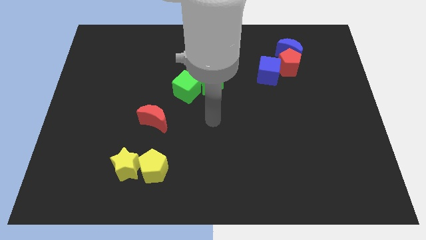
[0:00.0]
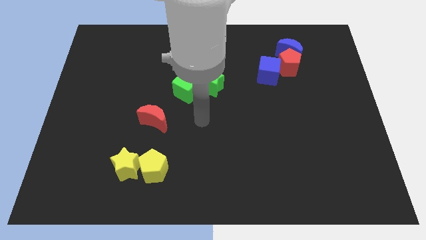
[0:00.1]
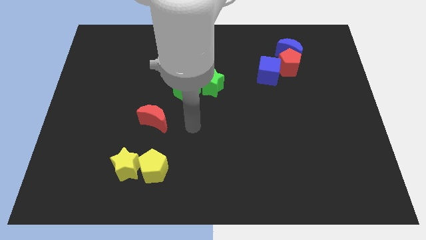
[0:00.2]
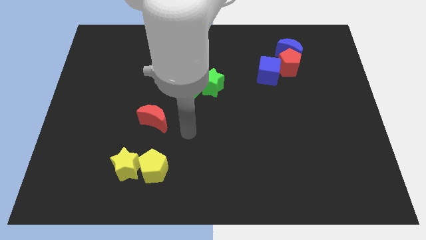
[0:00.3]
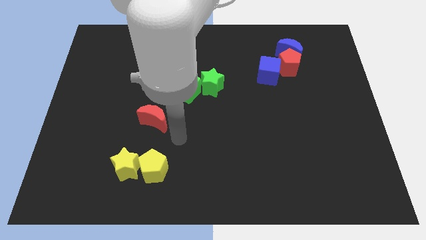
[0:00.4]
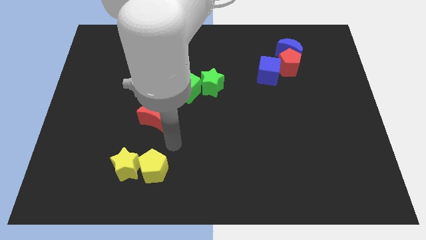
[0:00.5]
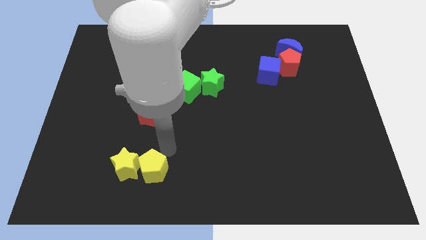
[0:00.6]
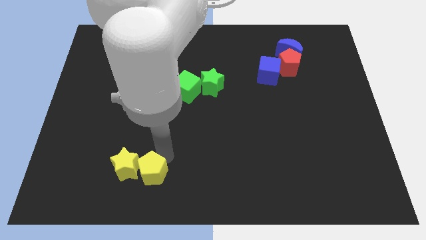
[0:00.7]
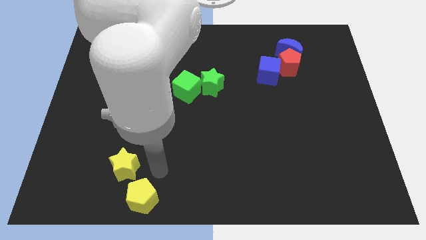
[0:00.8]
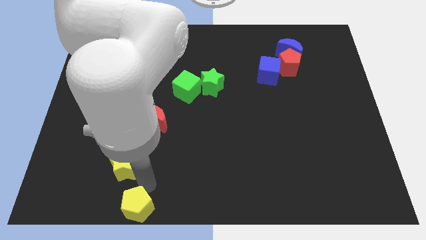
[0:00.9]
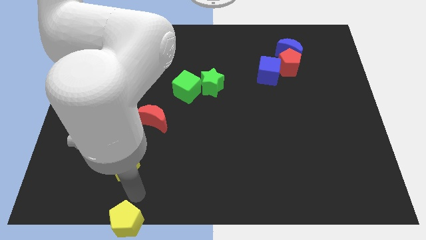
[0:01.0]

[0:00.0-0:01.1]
pull the yellow star apart from the yellow pentagon

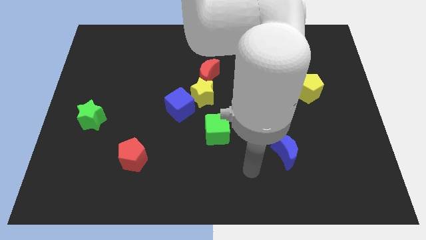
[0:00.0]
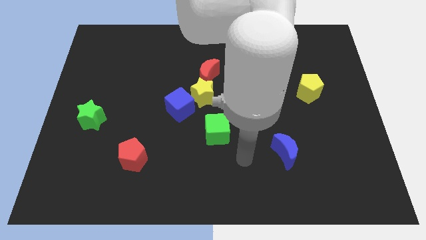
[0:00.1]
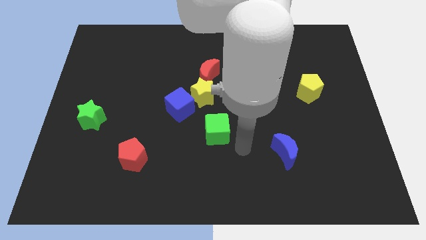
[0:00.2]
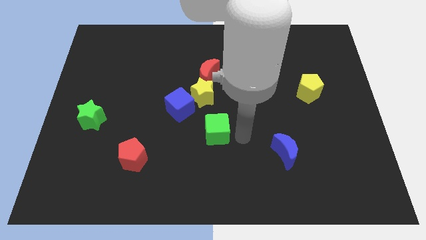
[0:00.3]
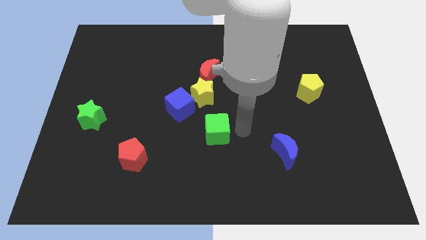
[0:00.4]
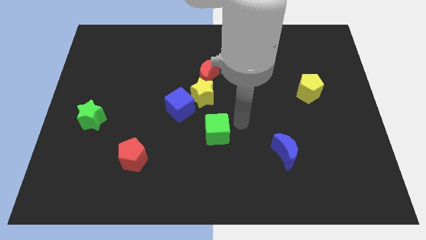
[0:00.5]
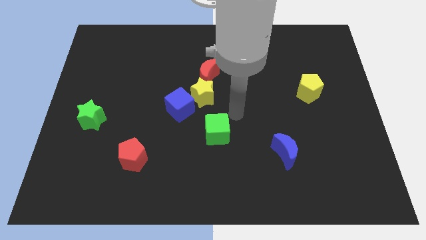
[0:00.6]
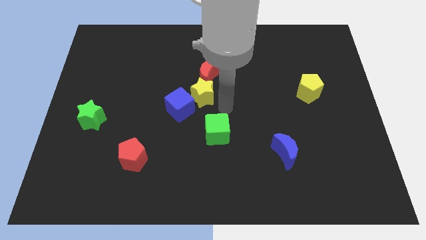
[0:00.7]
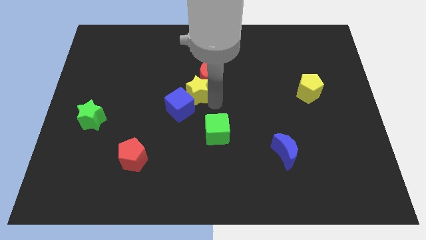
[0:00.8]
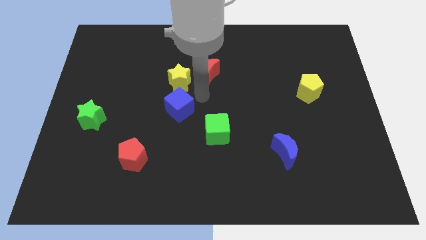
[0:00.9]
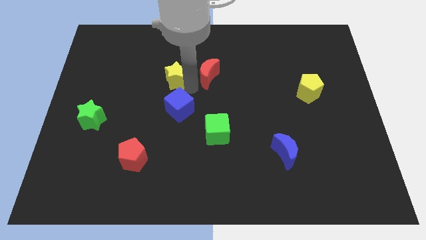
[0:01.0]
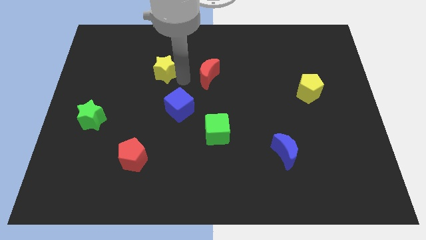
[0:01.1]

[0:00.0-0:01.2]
separate the red moon from the yellow star

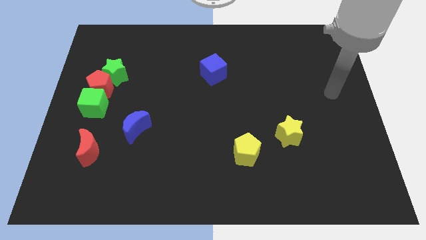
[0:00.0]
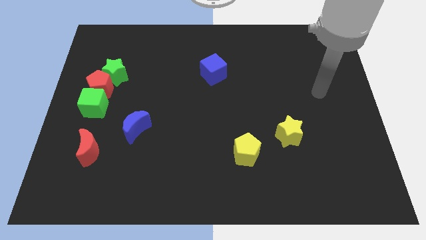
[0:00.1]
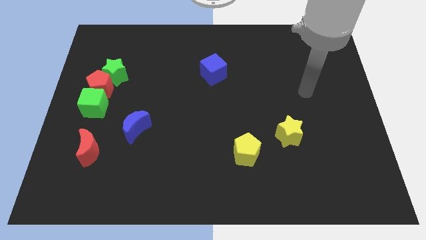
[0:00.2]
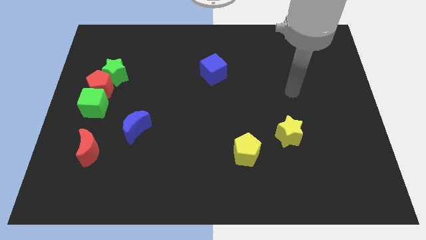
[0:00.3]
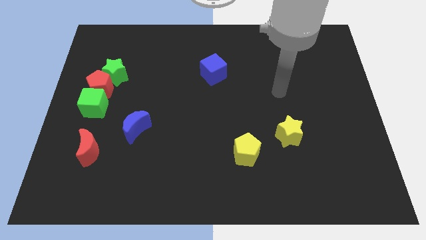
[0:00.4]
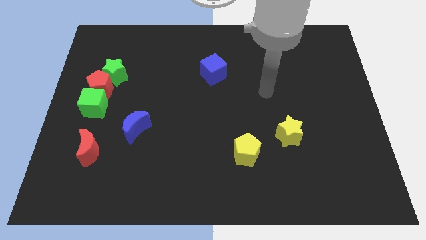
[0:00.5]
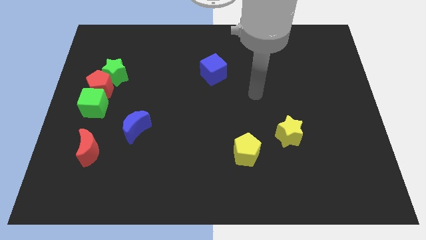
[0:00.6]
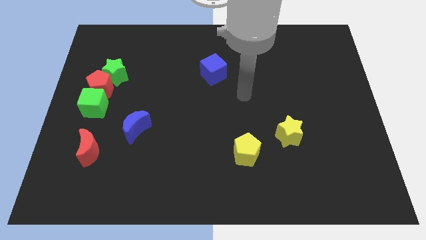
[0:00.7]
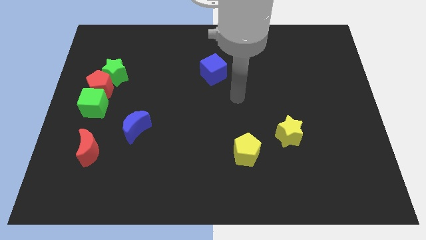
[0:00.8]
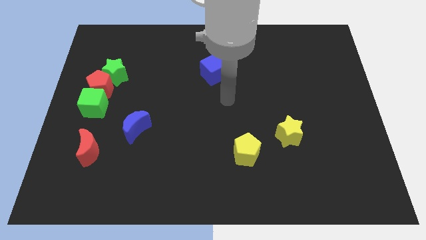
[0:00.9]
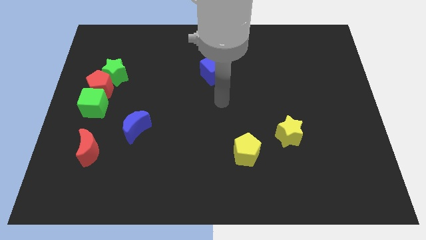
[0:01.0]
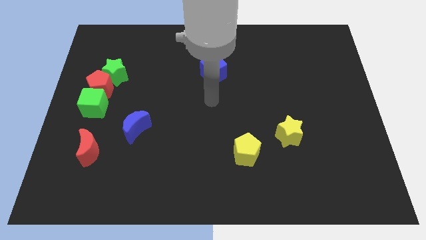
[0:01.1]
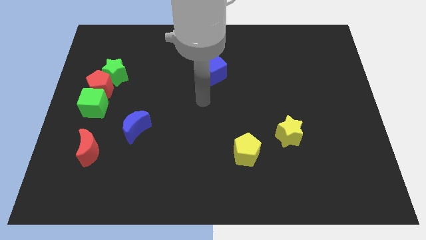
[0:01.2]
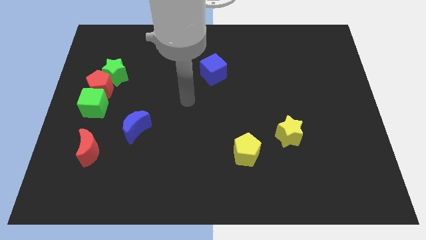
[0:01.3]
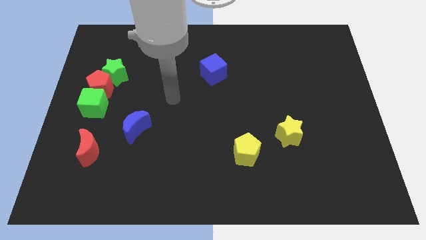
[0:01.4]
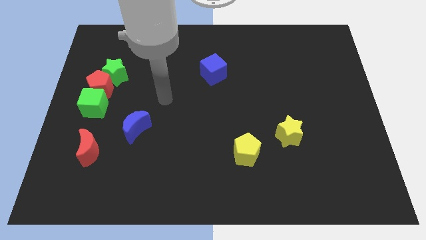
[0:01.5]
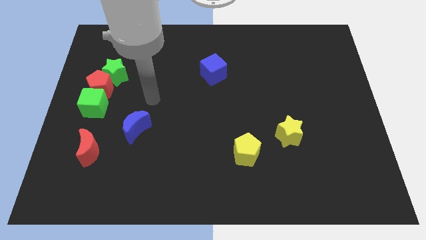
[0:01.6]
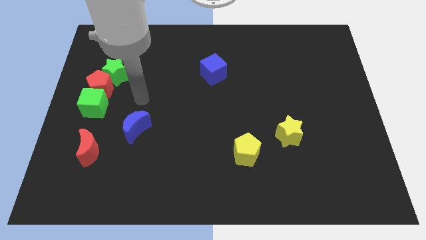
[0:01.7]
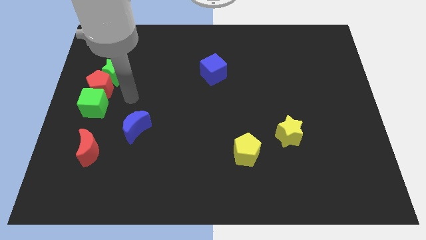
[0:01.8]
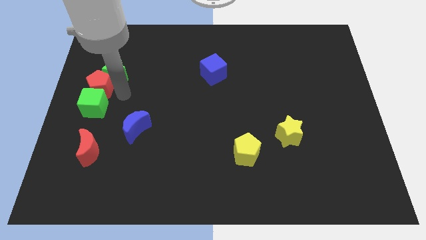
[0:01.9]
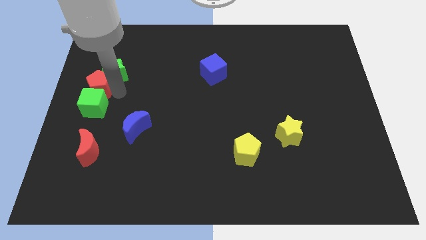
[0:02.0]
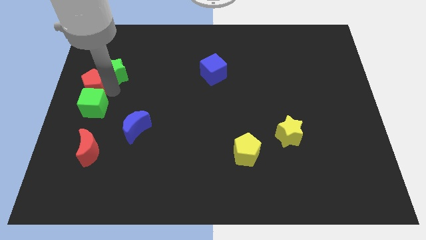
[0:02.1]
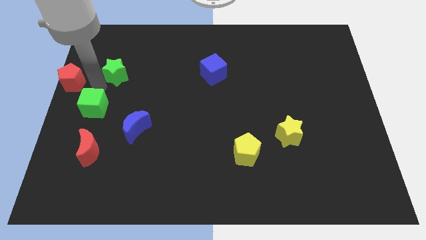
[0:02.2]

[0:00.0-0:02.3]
separate the green cube from the red pentagon

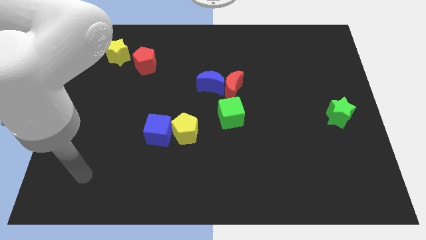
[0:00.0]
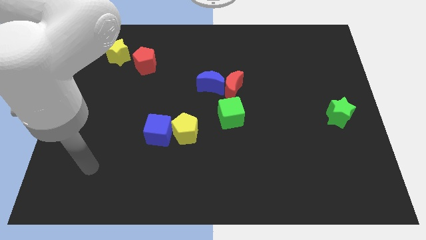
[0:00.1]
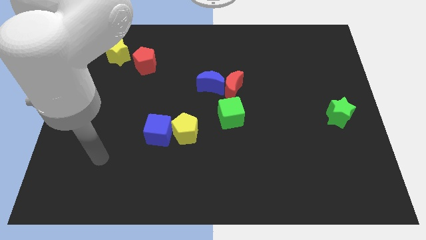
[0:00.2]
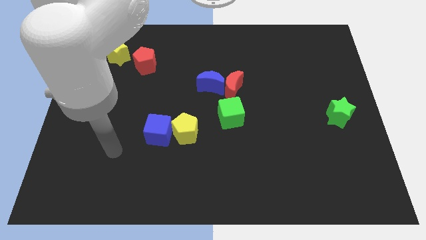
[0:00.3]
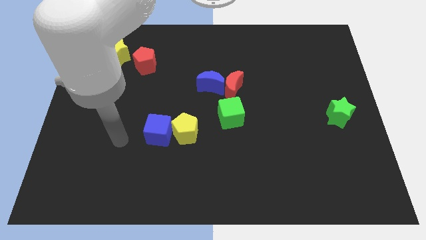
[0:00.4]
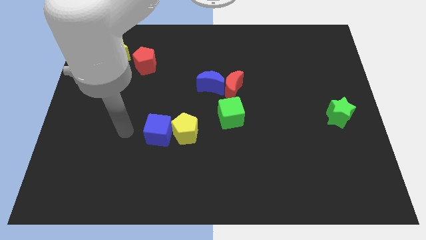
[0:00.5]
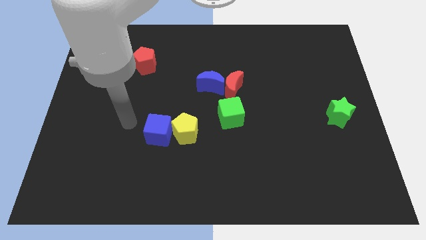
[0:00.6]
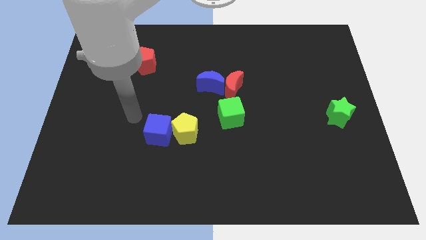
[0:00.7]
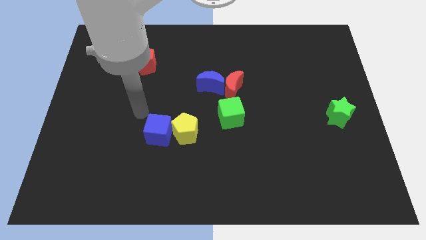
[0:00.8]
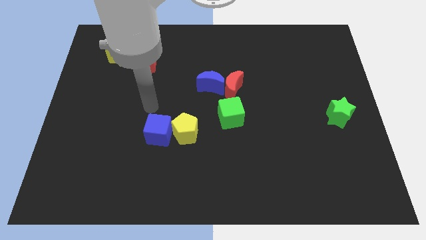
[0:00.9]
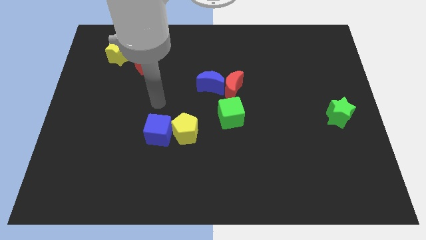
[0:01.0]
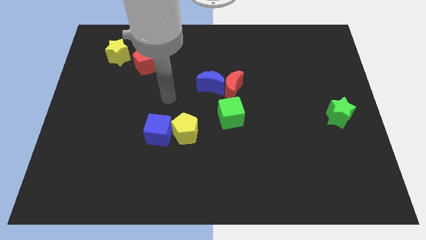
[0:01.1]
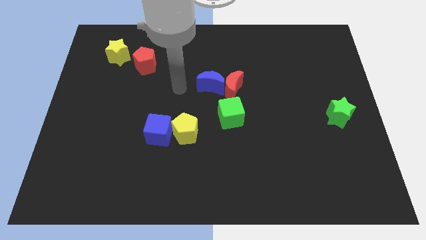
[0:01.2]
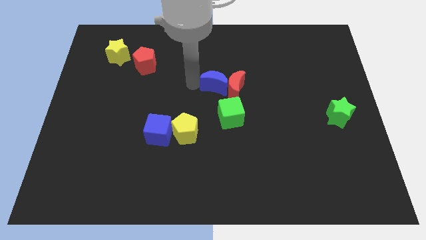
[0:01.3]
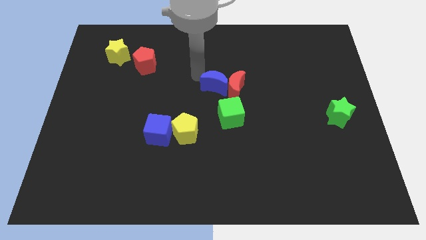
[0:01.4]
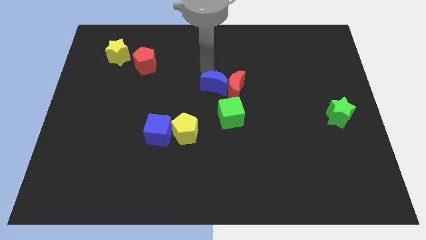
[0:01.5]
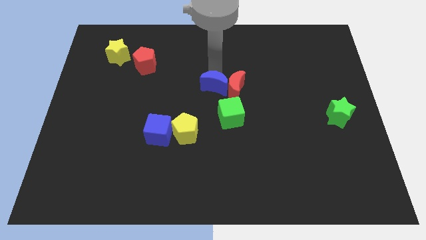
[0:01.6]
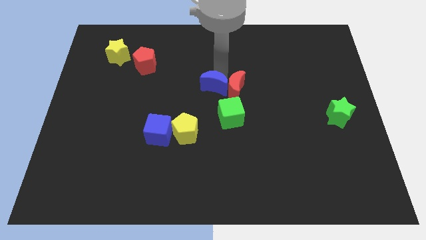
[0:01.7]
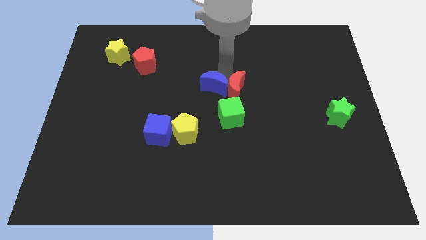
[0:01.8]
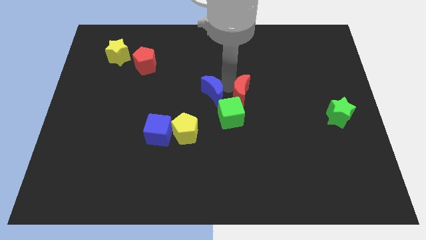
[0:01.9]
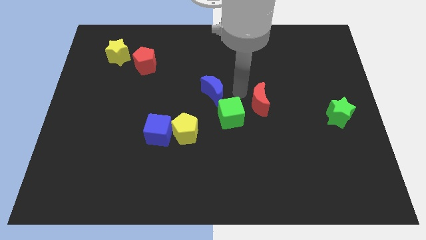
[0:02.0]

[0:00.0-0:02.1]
move the blue moon away from the red moon

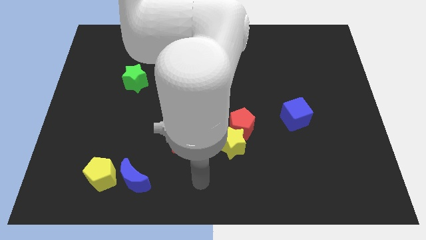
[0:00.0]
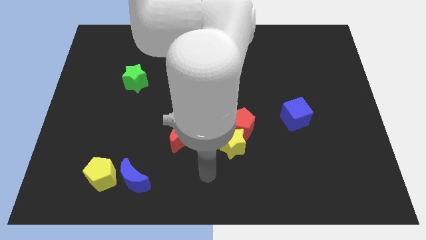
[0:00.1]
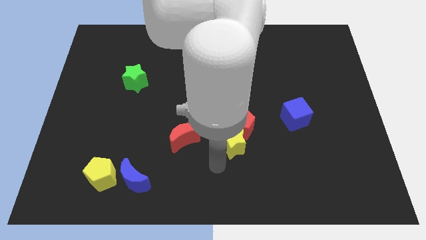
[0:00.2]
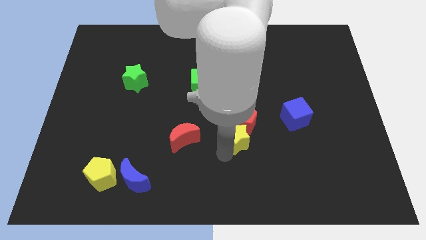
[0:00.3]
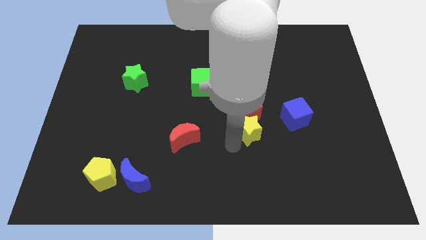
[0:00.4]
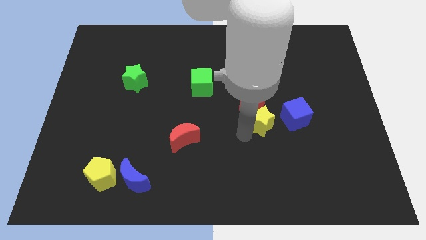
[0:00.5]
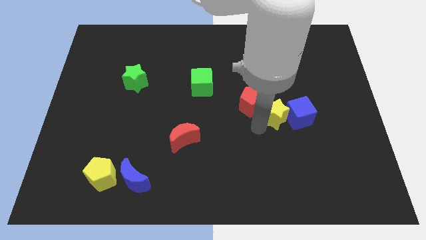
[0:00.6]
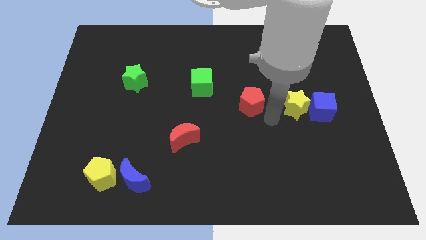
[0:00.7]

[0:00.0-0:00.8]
pull the red pentagon apart from the yellow star

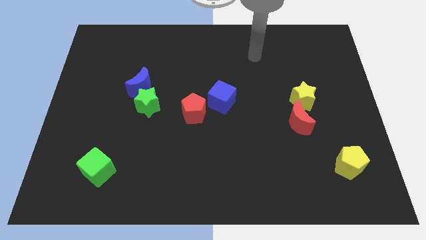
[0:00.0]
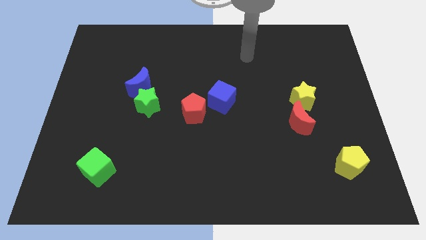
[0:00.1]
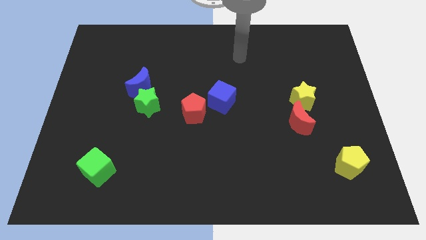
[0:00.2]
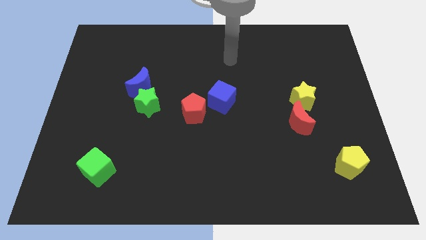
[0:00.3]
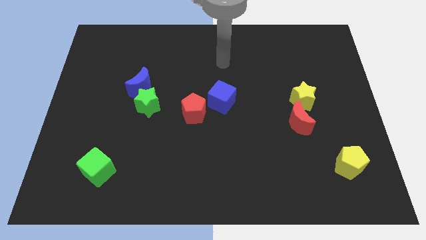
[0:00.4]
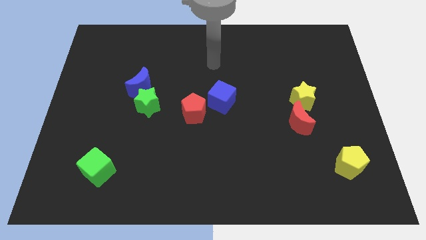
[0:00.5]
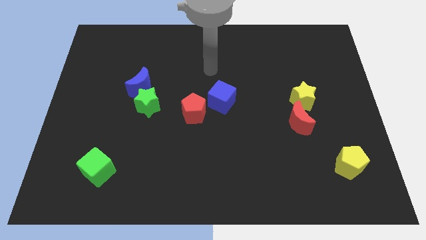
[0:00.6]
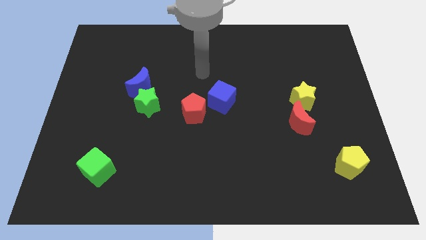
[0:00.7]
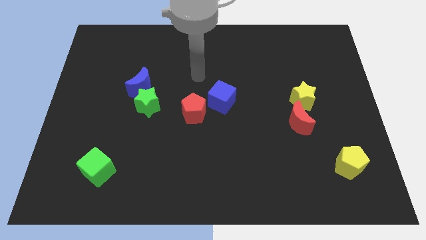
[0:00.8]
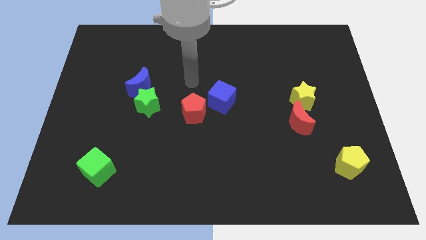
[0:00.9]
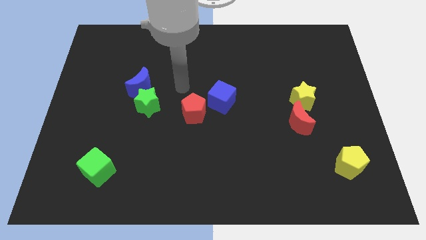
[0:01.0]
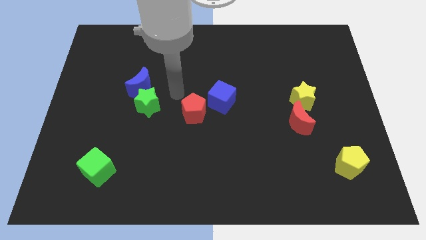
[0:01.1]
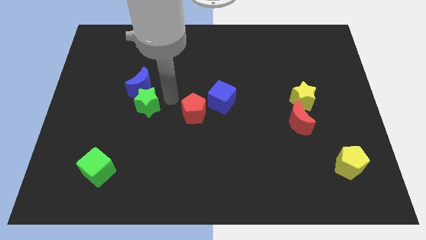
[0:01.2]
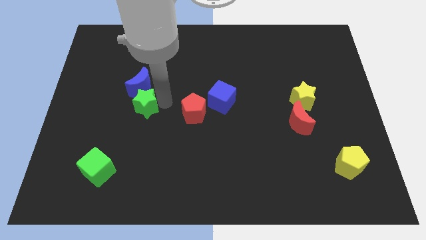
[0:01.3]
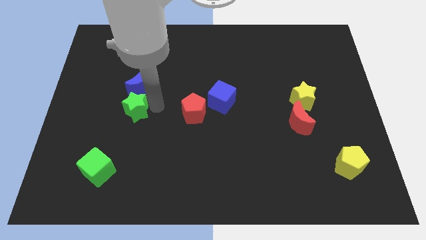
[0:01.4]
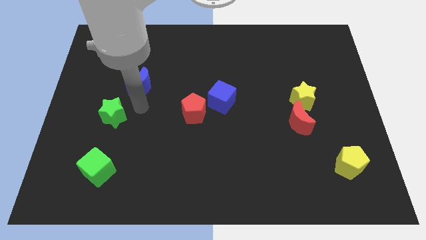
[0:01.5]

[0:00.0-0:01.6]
pull the blue moon apart from the green star
